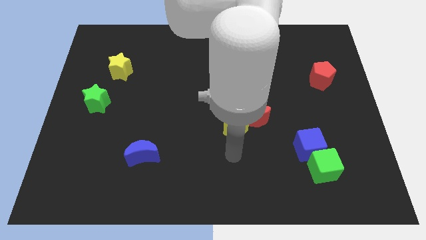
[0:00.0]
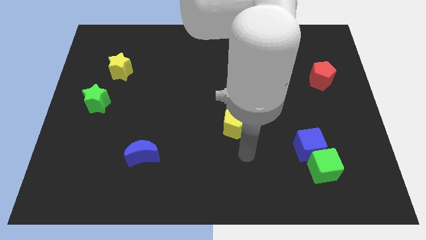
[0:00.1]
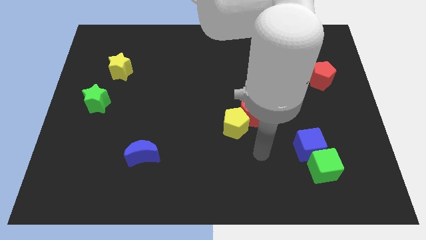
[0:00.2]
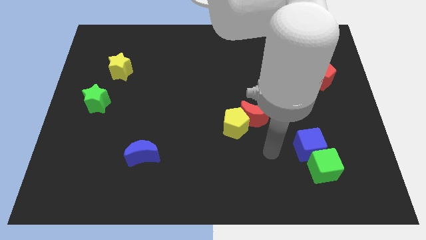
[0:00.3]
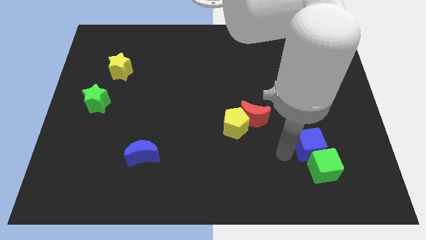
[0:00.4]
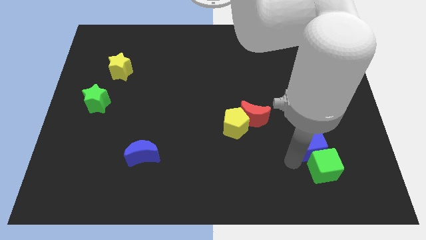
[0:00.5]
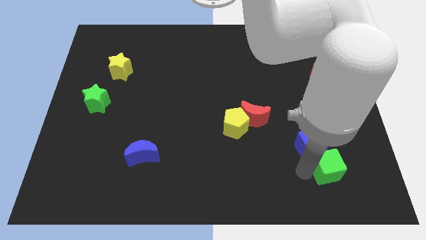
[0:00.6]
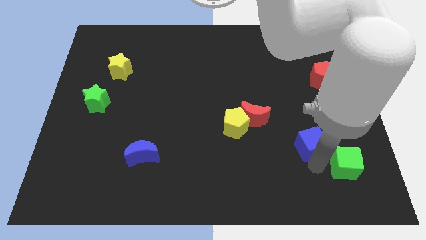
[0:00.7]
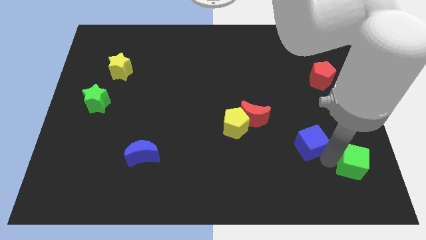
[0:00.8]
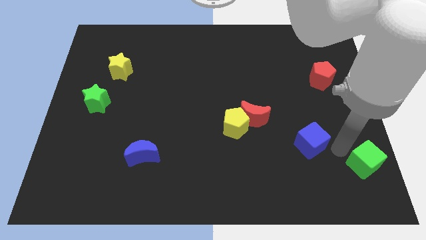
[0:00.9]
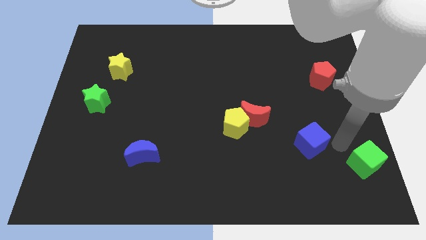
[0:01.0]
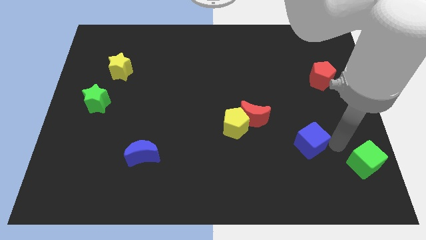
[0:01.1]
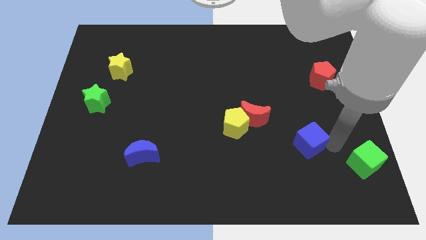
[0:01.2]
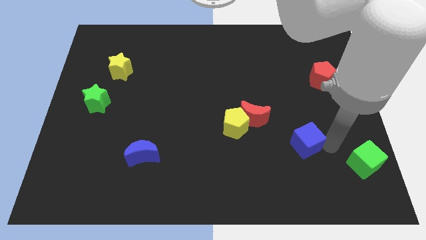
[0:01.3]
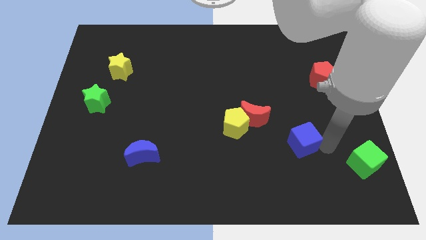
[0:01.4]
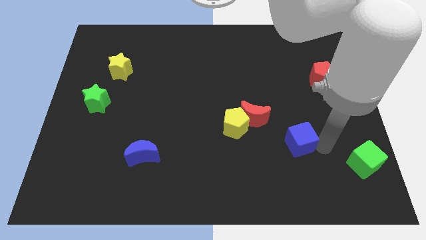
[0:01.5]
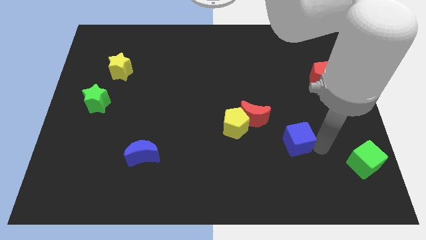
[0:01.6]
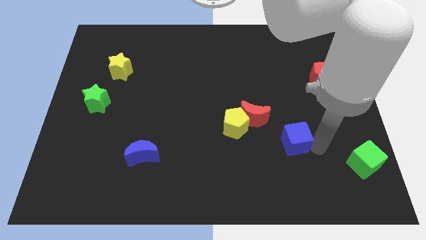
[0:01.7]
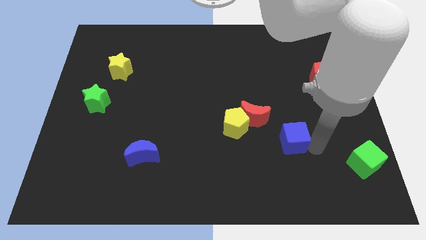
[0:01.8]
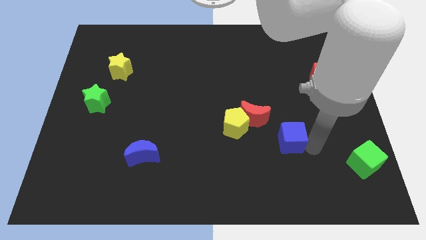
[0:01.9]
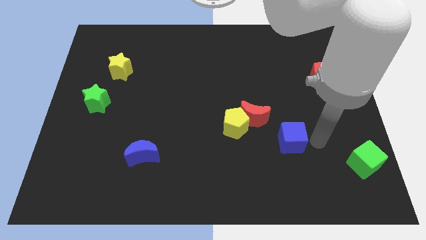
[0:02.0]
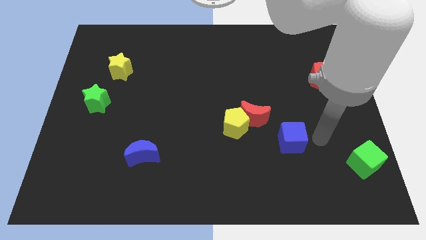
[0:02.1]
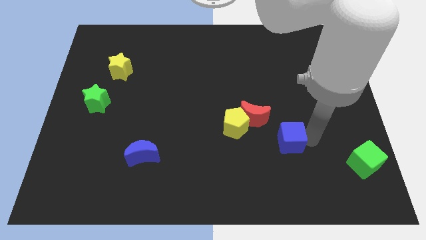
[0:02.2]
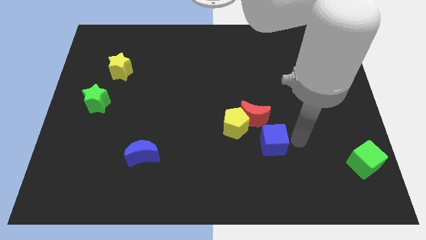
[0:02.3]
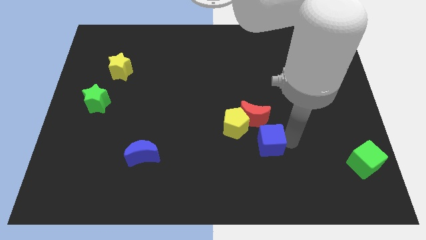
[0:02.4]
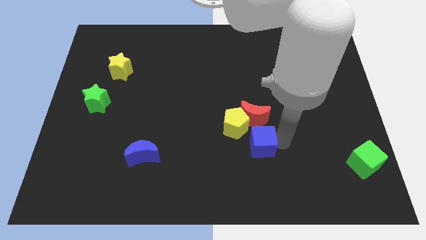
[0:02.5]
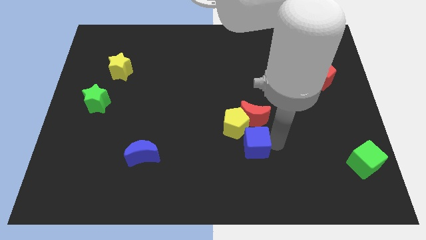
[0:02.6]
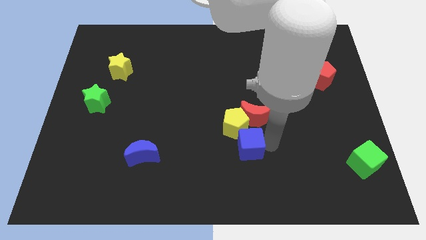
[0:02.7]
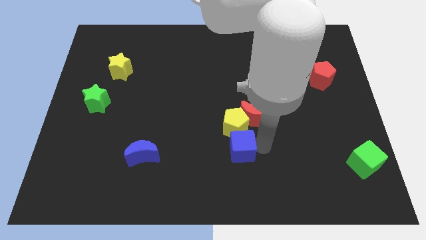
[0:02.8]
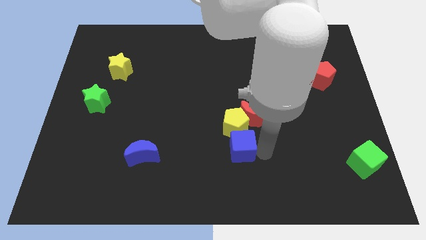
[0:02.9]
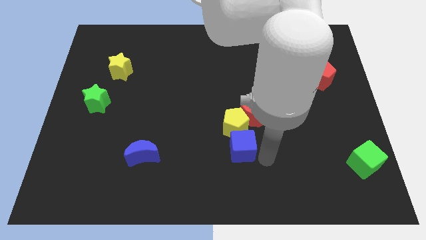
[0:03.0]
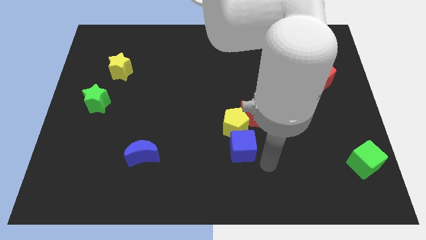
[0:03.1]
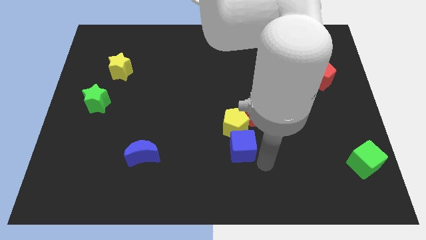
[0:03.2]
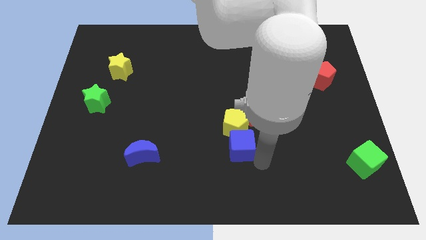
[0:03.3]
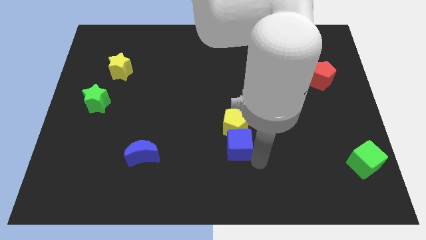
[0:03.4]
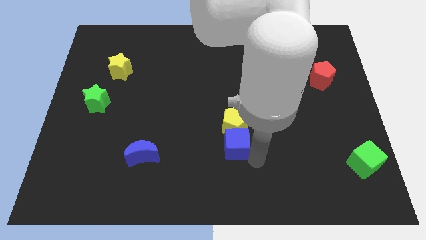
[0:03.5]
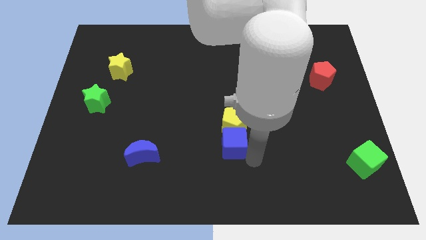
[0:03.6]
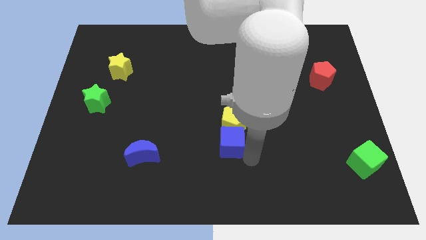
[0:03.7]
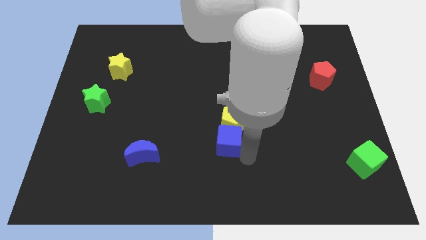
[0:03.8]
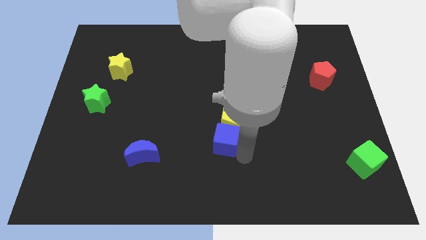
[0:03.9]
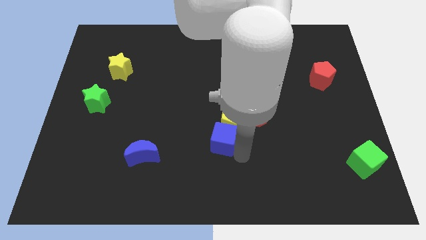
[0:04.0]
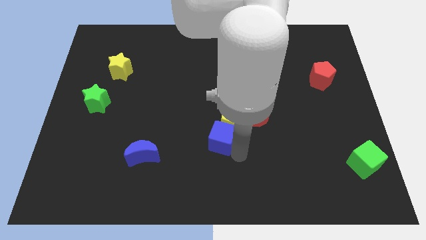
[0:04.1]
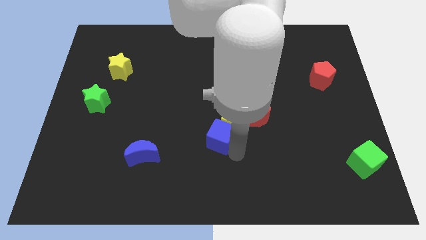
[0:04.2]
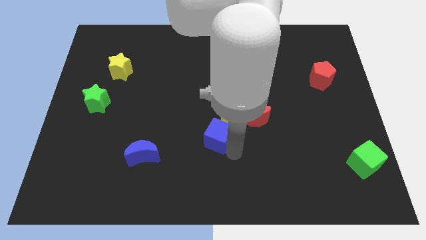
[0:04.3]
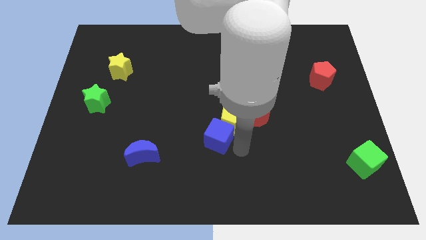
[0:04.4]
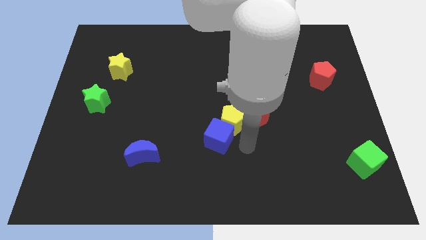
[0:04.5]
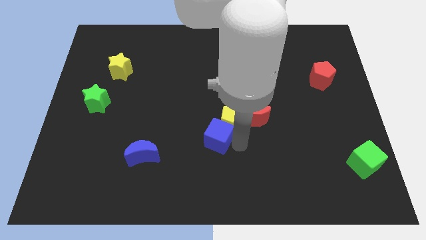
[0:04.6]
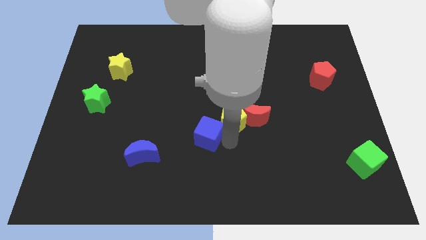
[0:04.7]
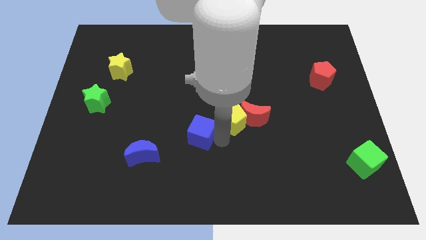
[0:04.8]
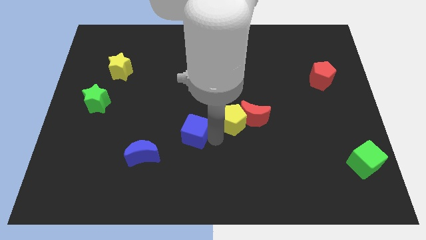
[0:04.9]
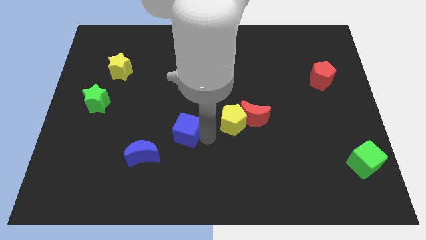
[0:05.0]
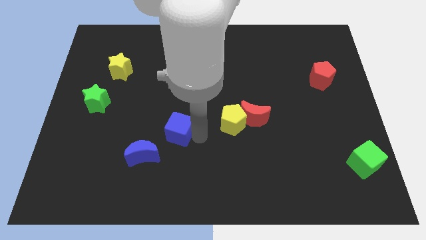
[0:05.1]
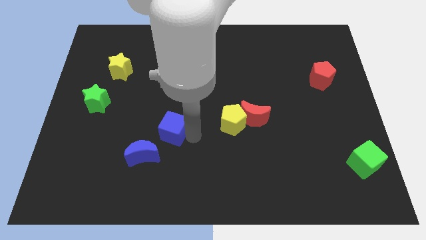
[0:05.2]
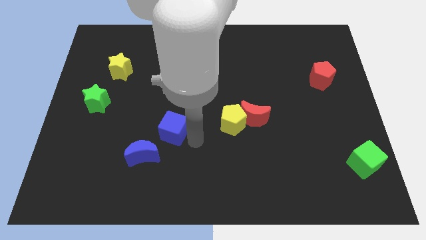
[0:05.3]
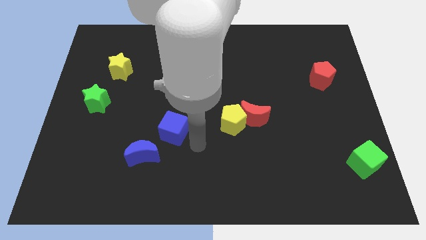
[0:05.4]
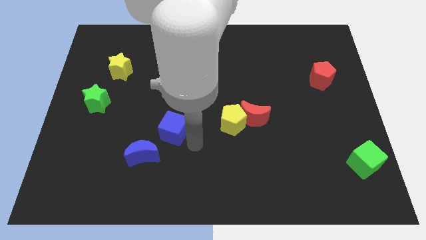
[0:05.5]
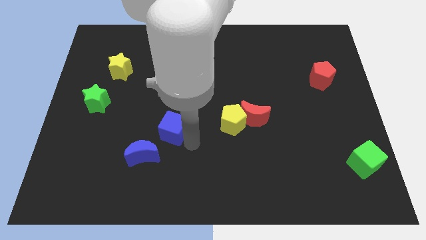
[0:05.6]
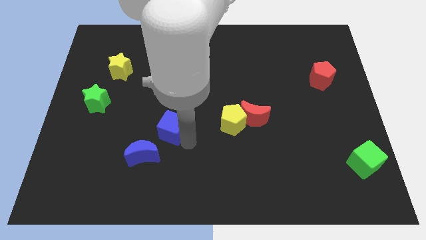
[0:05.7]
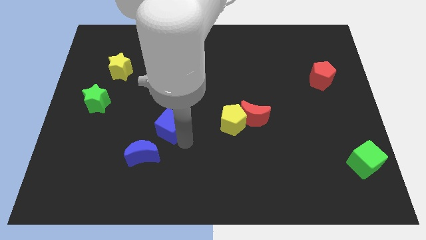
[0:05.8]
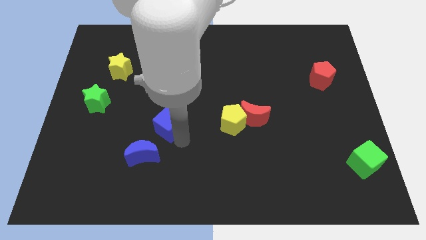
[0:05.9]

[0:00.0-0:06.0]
slide the blue cube above the blue moon

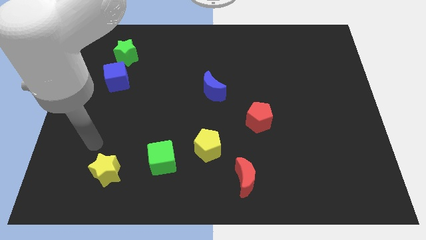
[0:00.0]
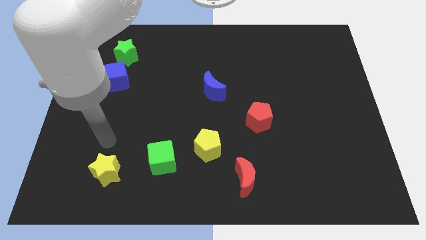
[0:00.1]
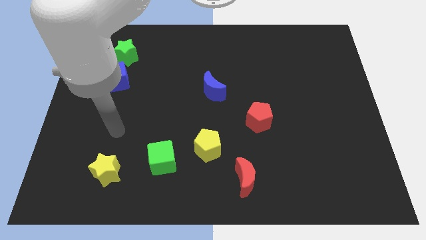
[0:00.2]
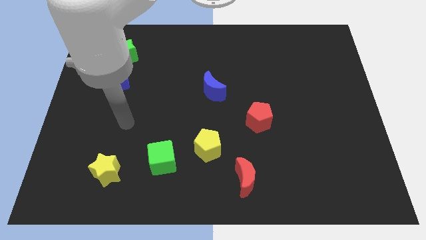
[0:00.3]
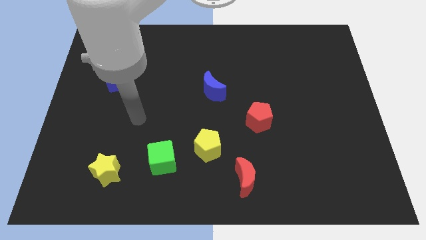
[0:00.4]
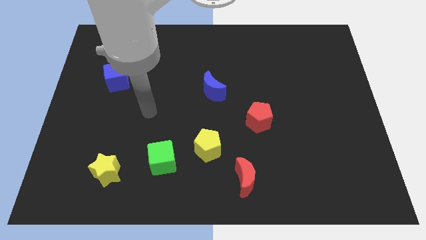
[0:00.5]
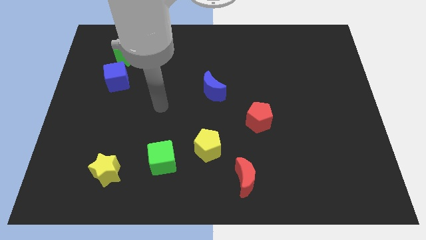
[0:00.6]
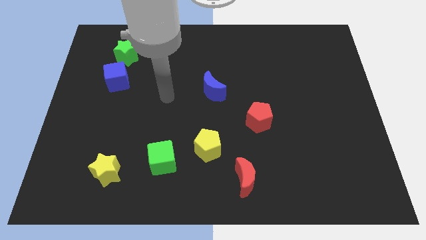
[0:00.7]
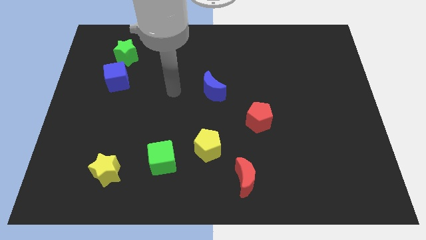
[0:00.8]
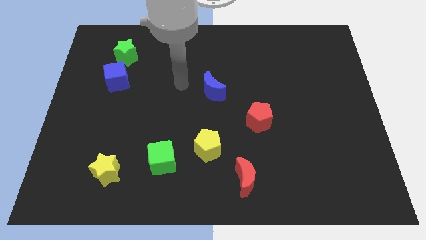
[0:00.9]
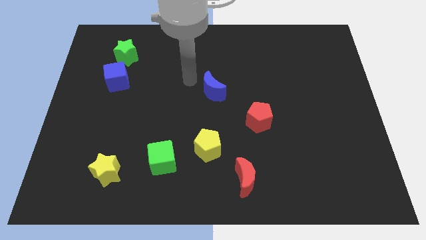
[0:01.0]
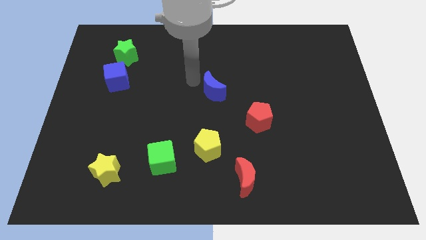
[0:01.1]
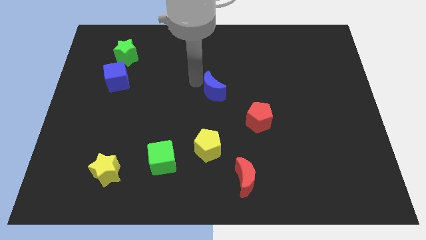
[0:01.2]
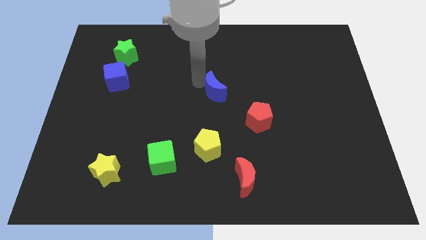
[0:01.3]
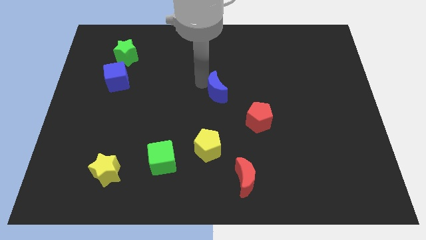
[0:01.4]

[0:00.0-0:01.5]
slide the blue moon to the top left side of the red pentagon
